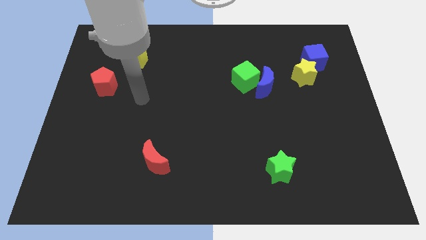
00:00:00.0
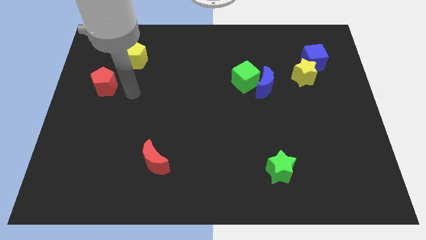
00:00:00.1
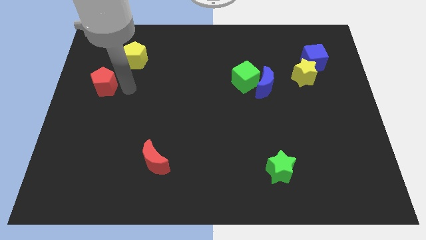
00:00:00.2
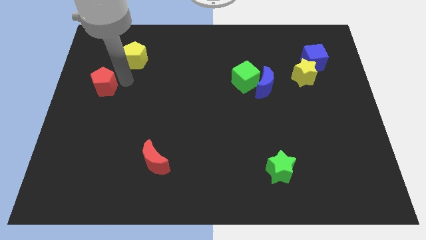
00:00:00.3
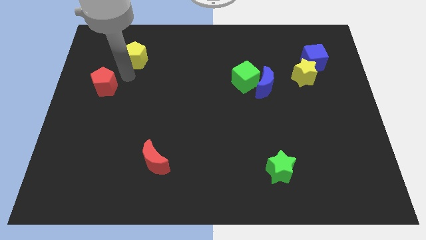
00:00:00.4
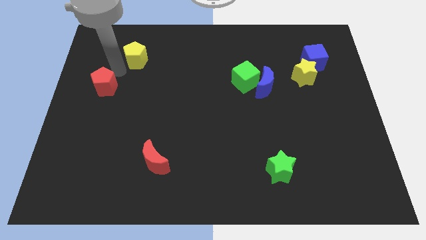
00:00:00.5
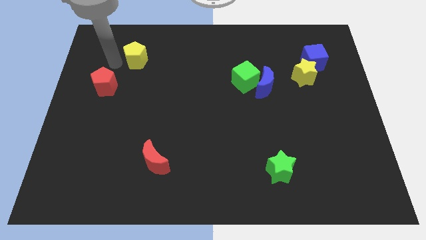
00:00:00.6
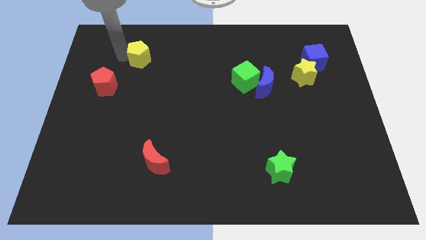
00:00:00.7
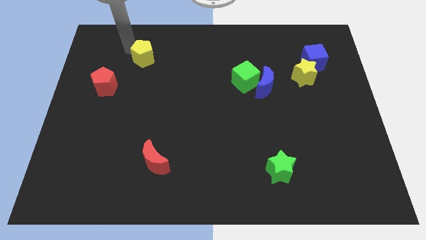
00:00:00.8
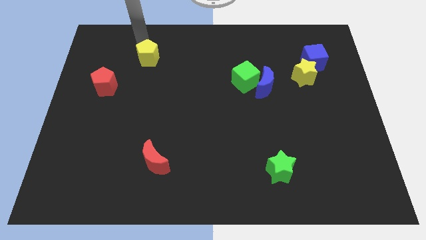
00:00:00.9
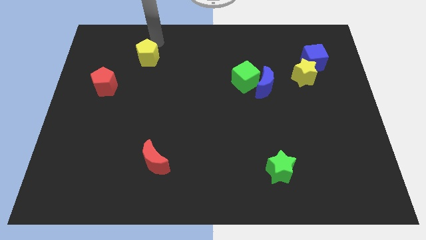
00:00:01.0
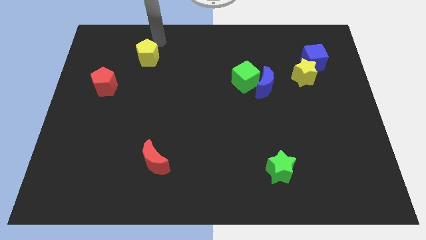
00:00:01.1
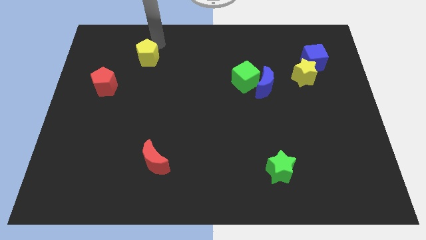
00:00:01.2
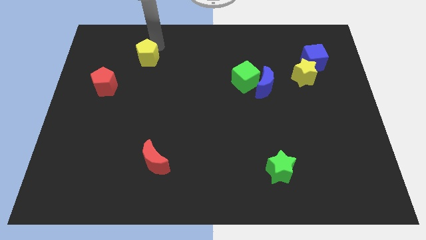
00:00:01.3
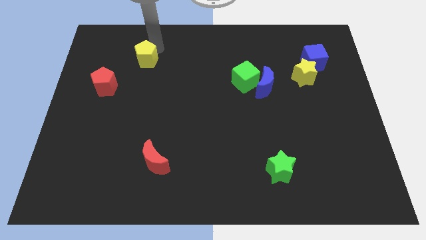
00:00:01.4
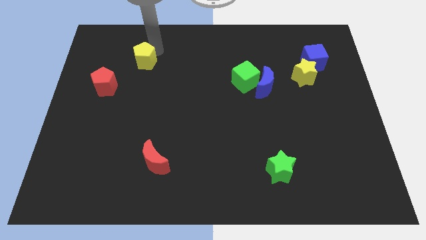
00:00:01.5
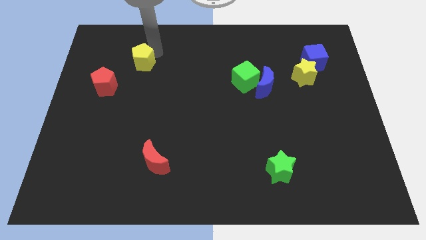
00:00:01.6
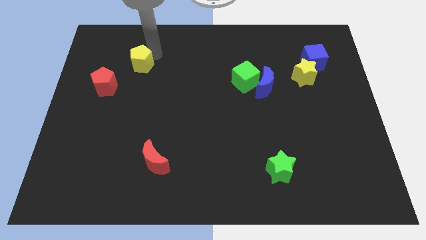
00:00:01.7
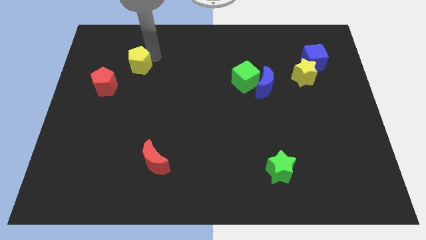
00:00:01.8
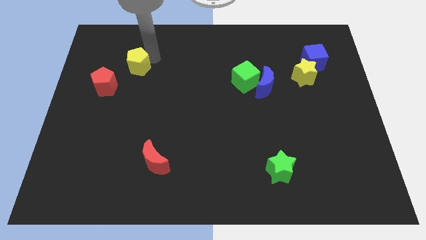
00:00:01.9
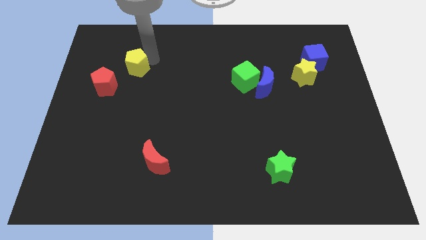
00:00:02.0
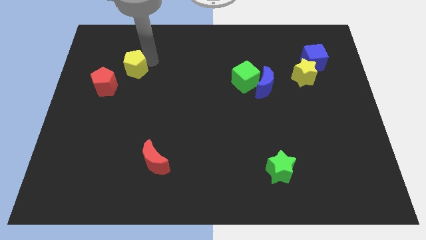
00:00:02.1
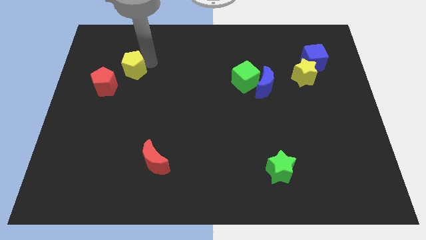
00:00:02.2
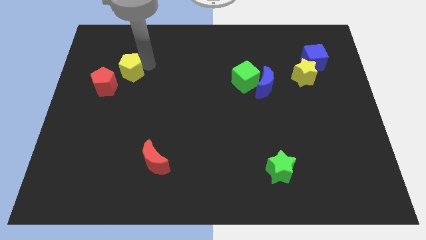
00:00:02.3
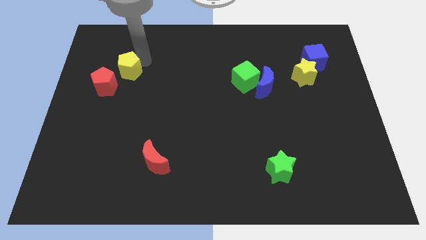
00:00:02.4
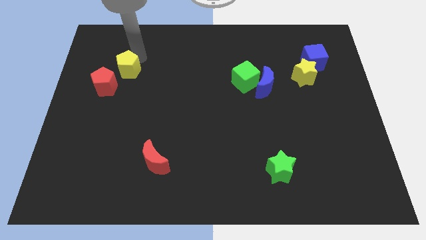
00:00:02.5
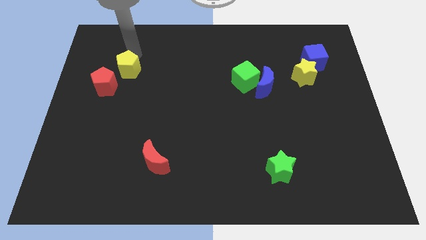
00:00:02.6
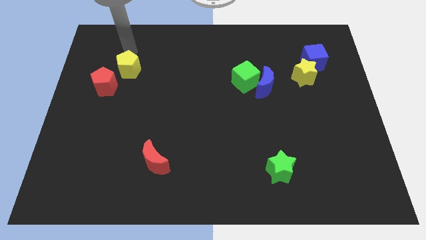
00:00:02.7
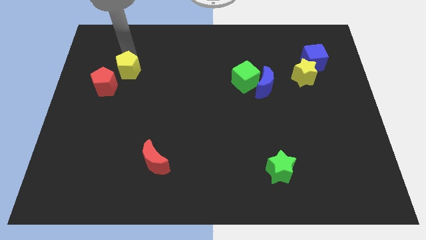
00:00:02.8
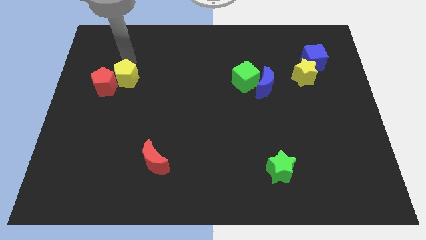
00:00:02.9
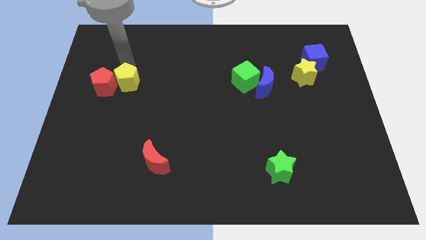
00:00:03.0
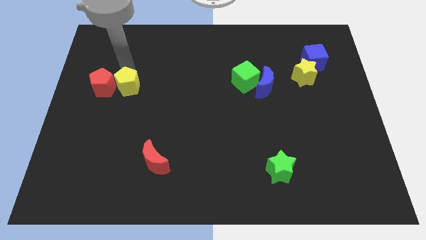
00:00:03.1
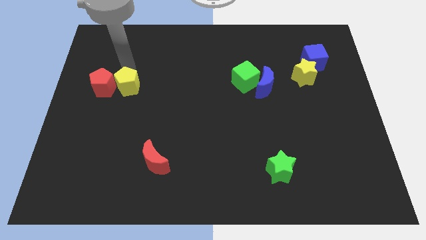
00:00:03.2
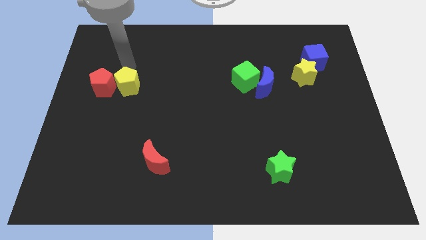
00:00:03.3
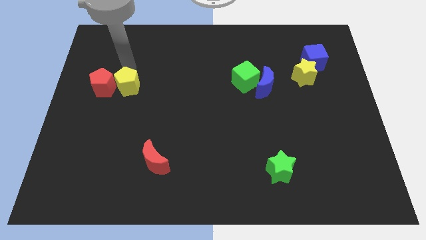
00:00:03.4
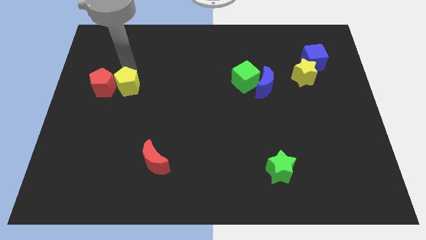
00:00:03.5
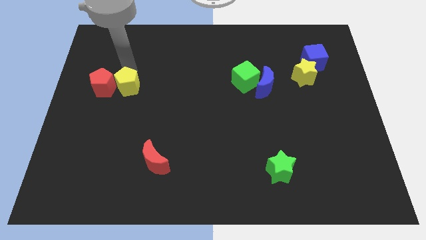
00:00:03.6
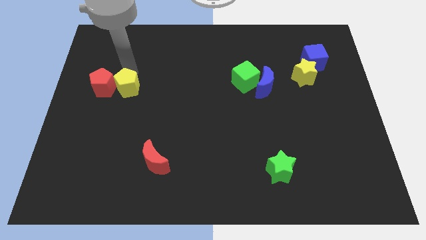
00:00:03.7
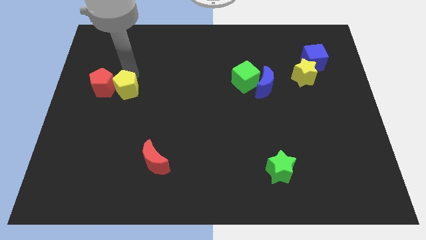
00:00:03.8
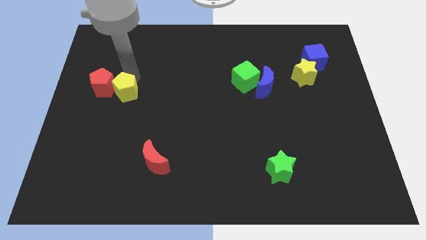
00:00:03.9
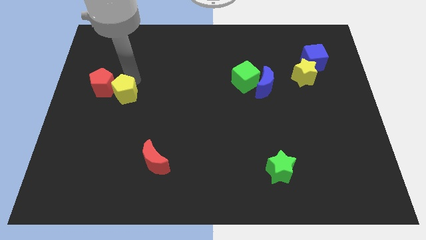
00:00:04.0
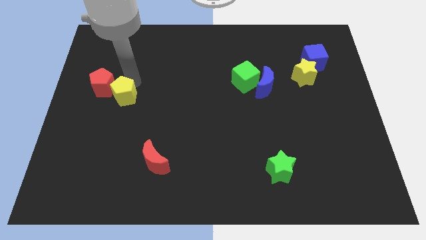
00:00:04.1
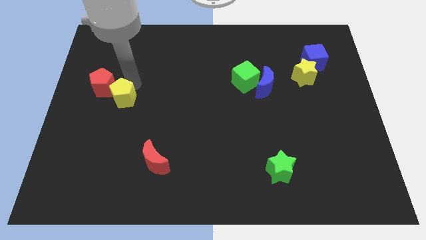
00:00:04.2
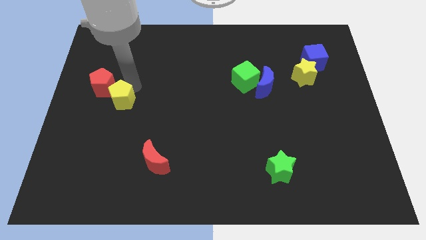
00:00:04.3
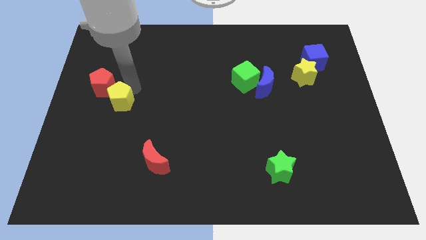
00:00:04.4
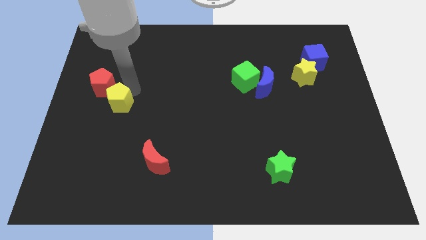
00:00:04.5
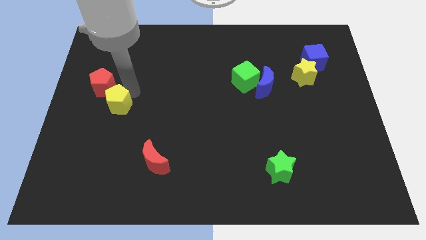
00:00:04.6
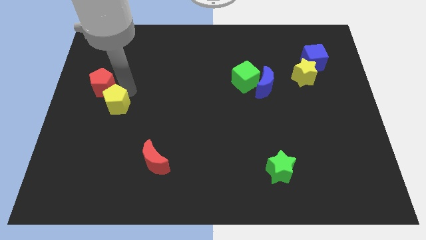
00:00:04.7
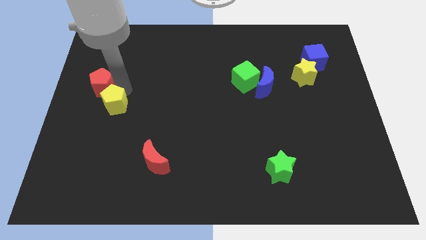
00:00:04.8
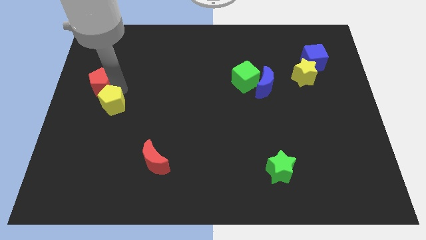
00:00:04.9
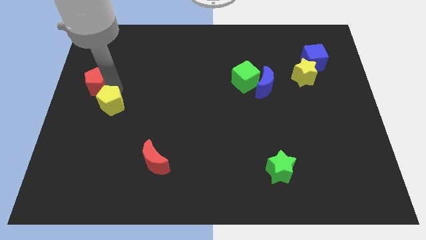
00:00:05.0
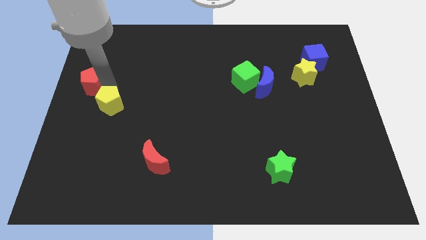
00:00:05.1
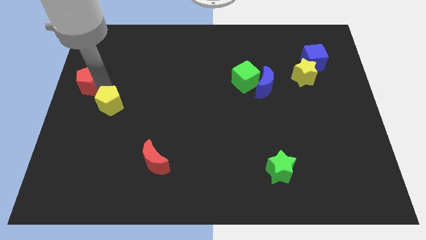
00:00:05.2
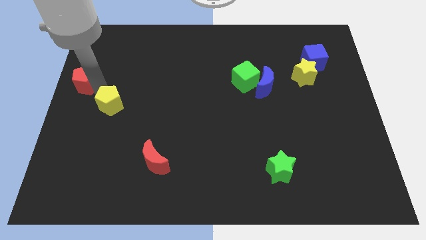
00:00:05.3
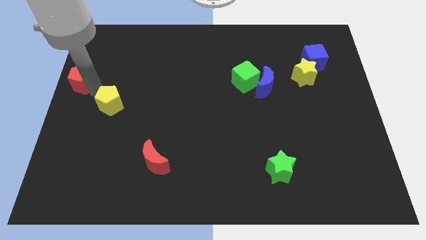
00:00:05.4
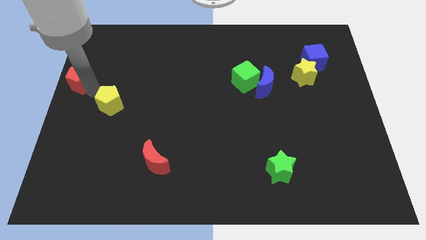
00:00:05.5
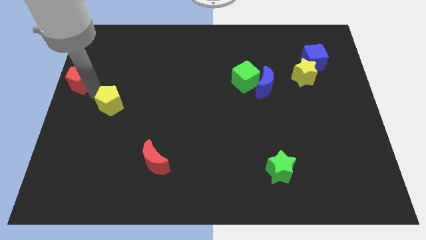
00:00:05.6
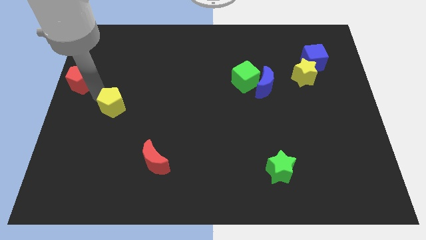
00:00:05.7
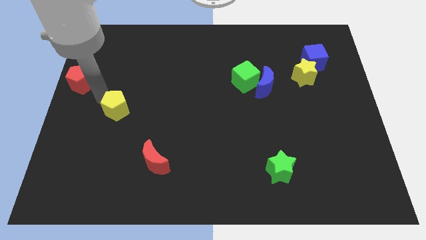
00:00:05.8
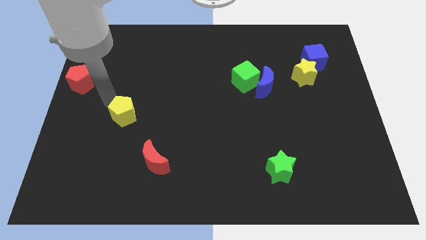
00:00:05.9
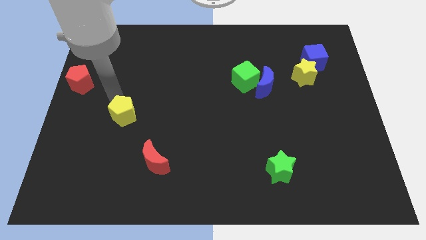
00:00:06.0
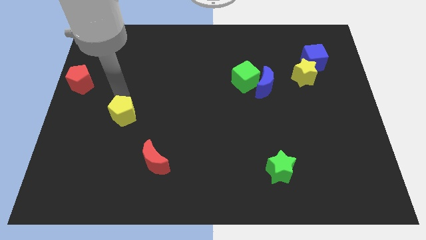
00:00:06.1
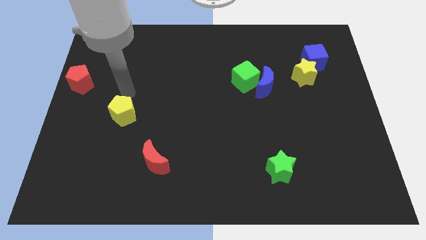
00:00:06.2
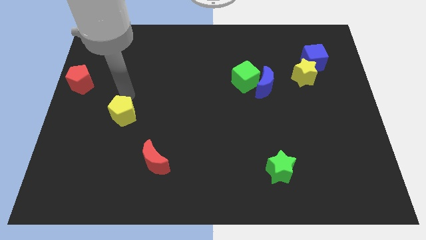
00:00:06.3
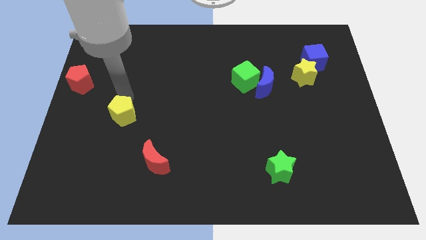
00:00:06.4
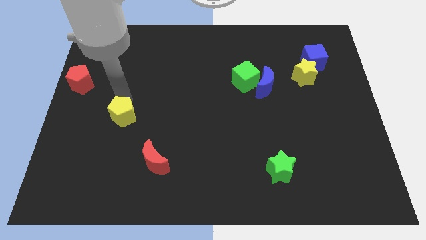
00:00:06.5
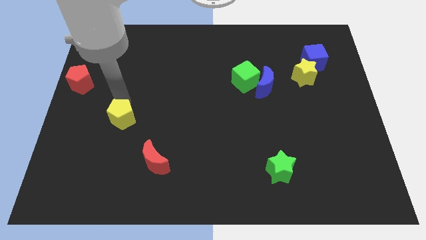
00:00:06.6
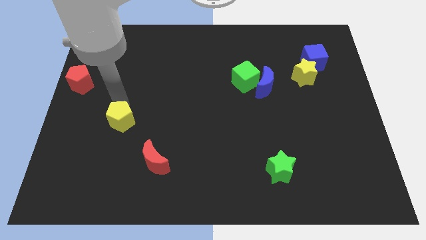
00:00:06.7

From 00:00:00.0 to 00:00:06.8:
slide the yellow pentagon downwards

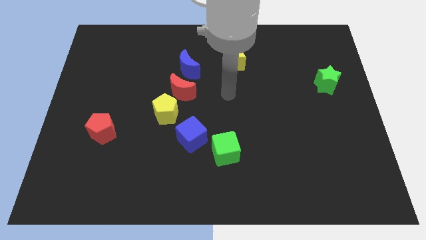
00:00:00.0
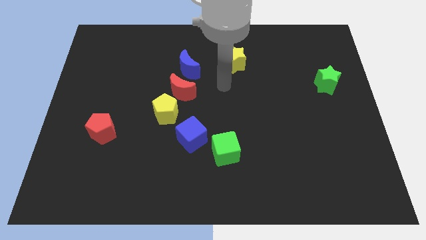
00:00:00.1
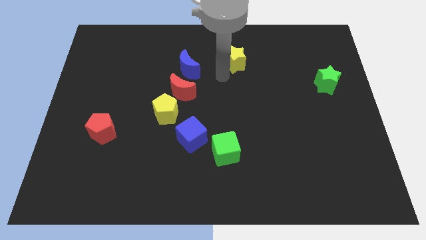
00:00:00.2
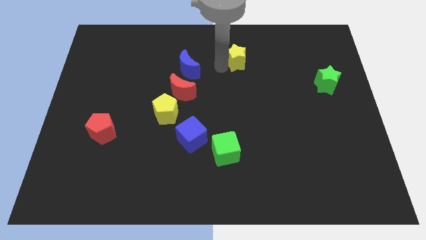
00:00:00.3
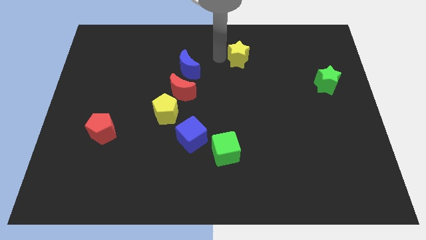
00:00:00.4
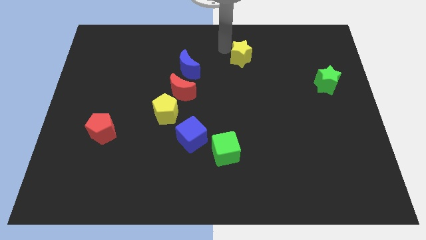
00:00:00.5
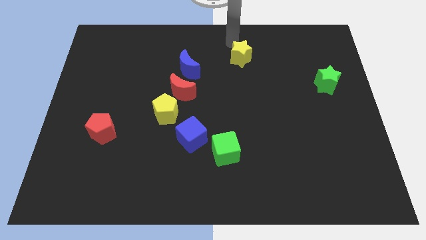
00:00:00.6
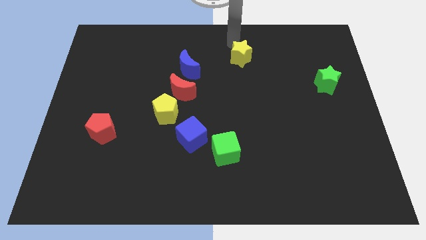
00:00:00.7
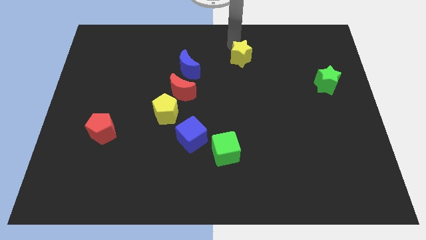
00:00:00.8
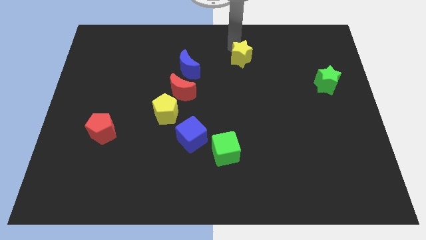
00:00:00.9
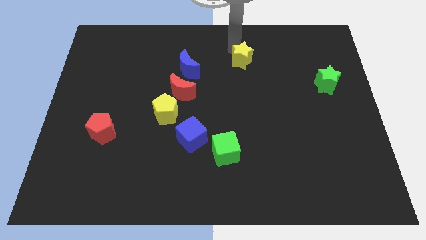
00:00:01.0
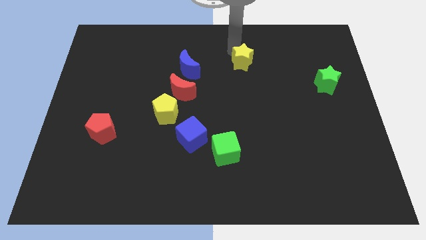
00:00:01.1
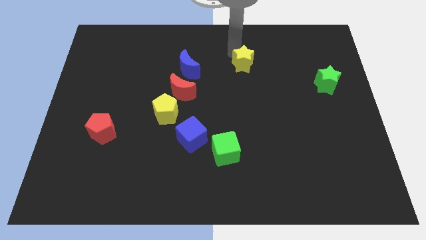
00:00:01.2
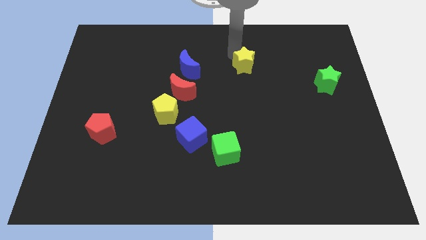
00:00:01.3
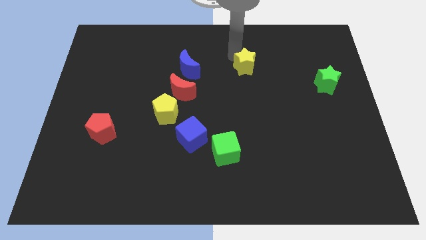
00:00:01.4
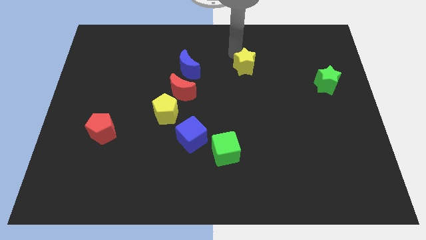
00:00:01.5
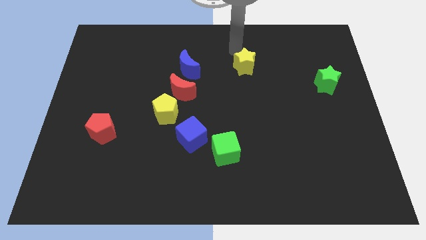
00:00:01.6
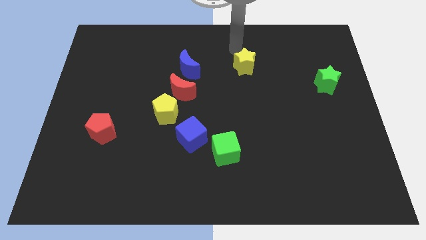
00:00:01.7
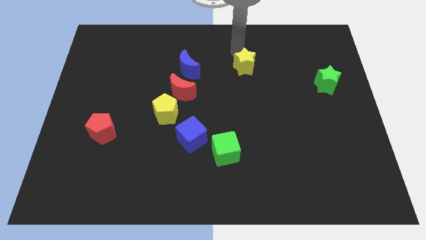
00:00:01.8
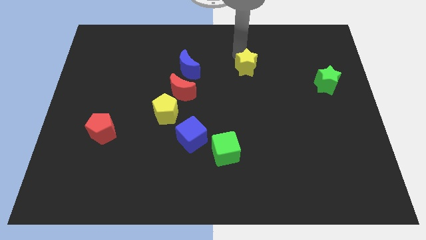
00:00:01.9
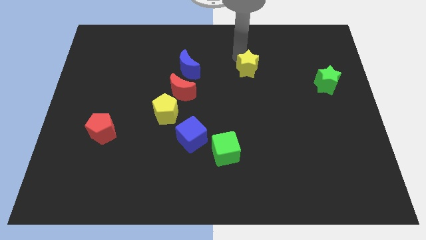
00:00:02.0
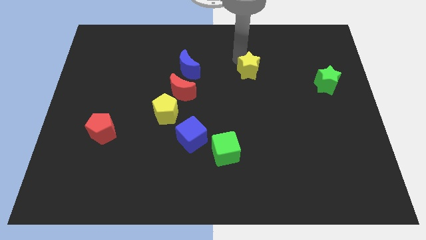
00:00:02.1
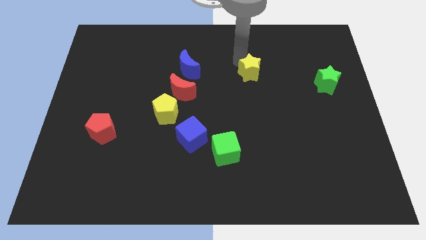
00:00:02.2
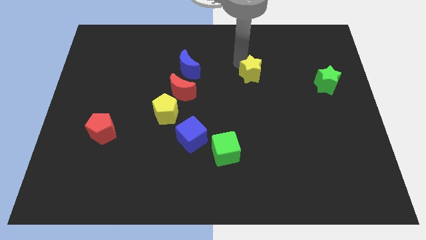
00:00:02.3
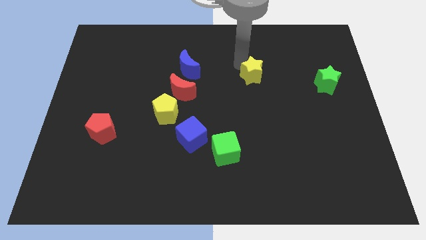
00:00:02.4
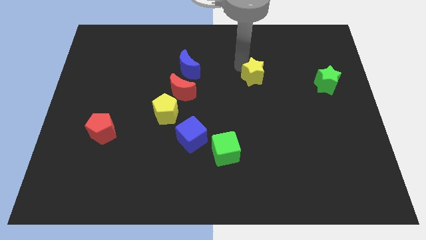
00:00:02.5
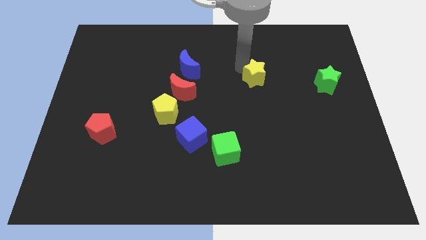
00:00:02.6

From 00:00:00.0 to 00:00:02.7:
move the yellow star downwards and right a little
